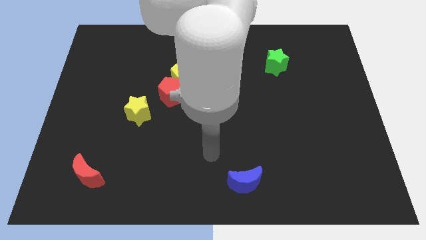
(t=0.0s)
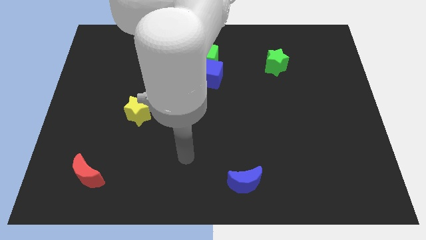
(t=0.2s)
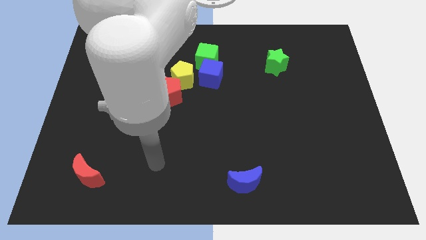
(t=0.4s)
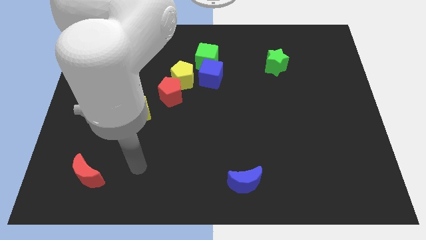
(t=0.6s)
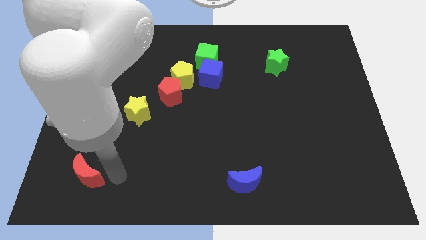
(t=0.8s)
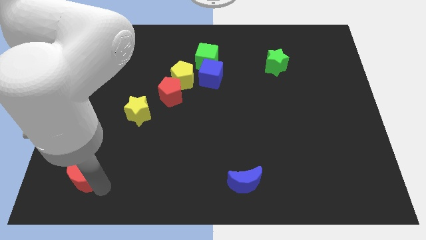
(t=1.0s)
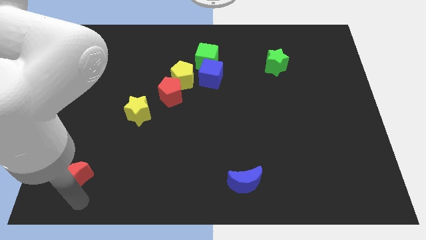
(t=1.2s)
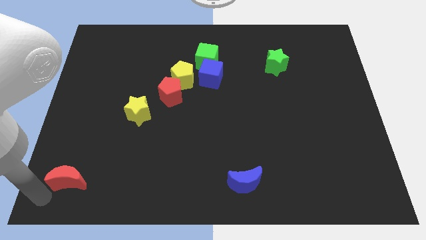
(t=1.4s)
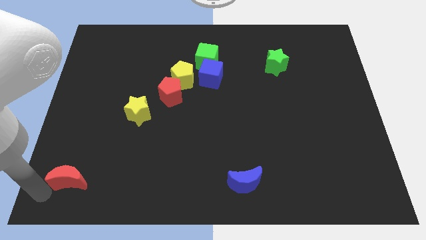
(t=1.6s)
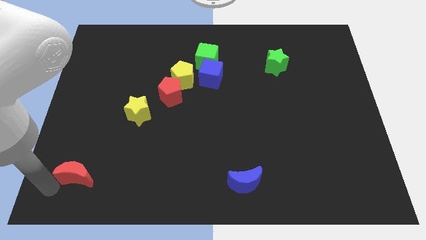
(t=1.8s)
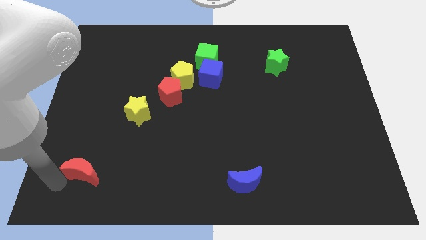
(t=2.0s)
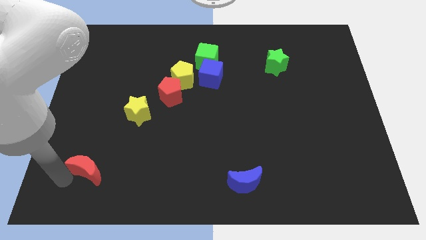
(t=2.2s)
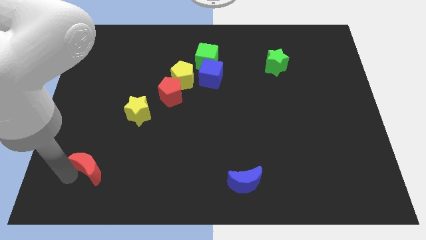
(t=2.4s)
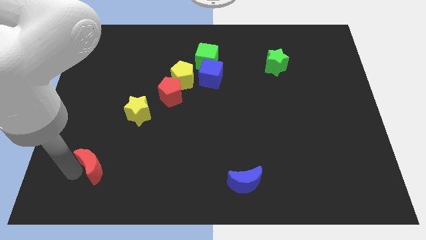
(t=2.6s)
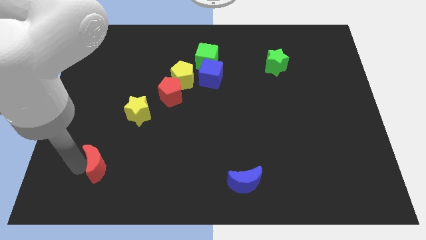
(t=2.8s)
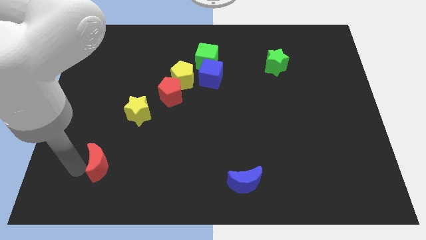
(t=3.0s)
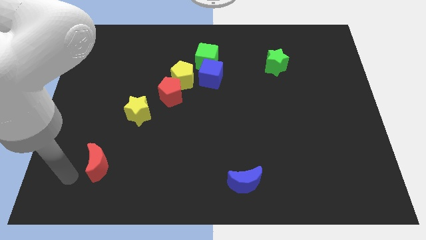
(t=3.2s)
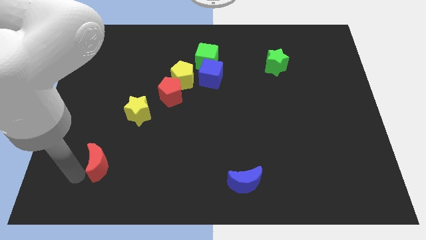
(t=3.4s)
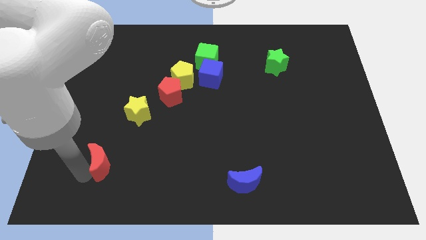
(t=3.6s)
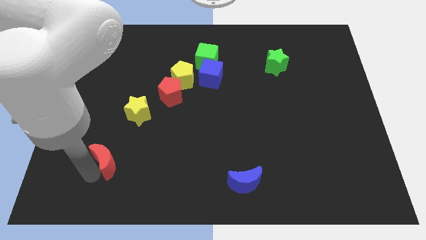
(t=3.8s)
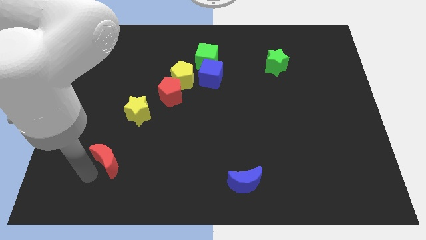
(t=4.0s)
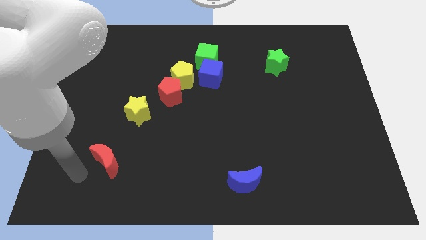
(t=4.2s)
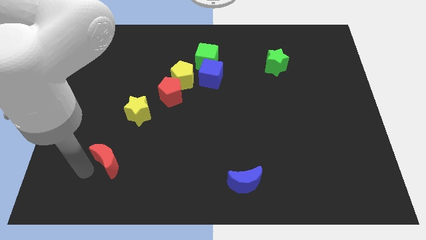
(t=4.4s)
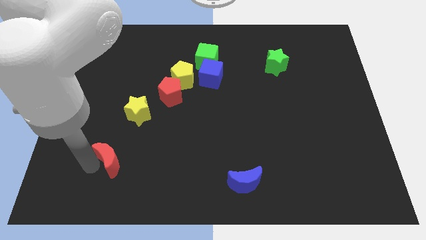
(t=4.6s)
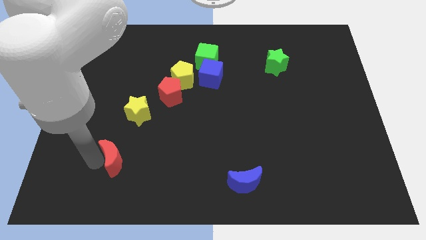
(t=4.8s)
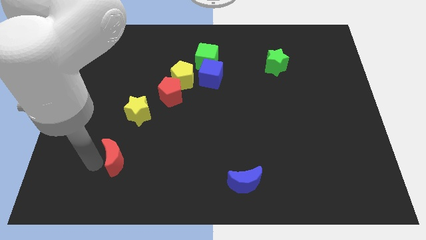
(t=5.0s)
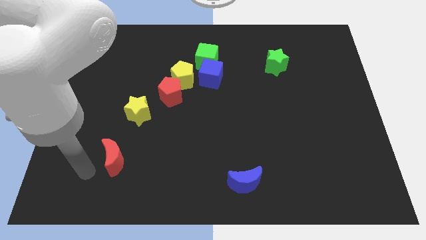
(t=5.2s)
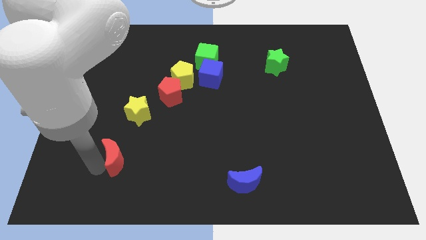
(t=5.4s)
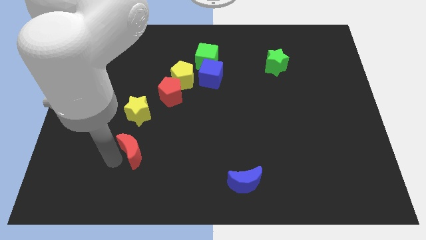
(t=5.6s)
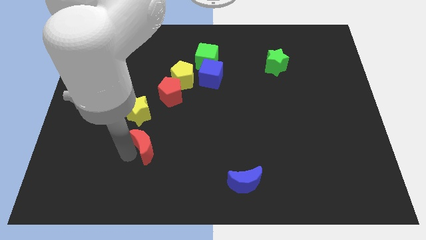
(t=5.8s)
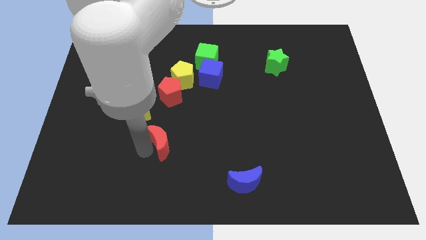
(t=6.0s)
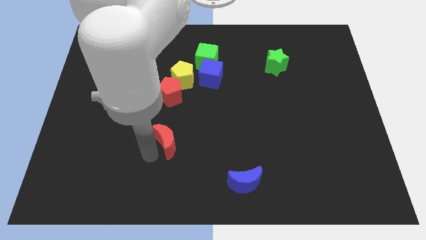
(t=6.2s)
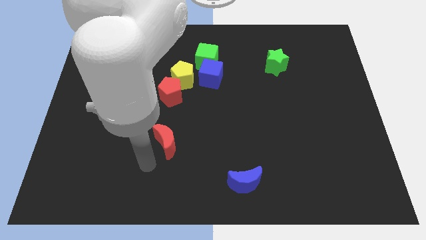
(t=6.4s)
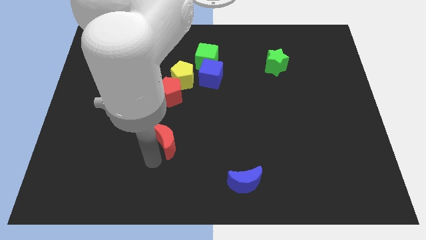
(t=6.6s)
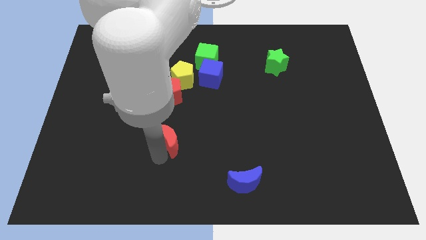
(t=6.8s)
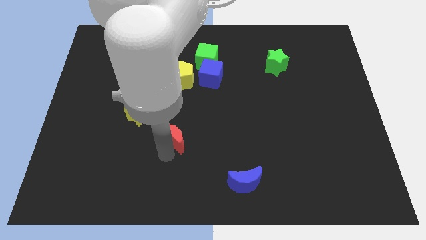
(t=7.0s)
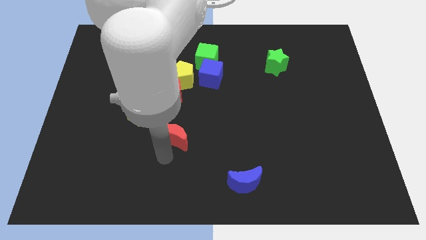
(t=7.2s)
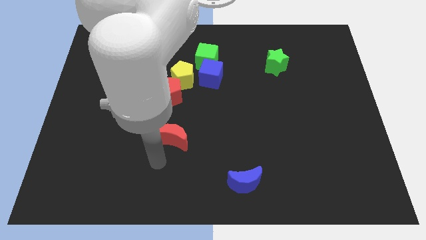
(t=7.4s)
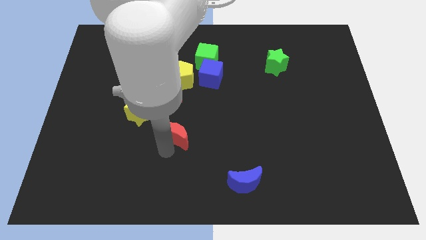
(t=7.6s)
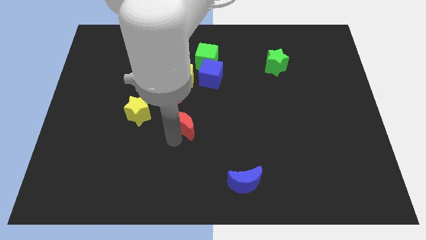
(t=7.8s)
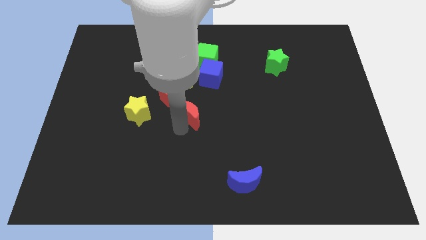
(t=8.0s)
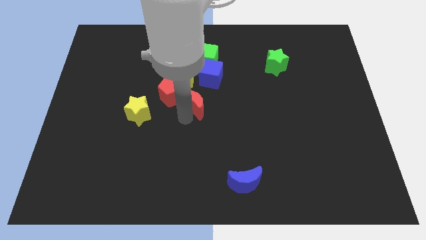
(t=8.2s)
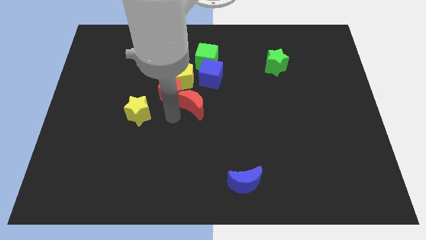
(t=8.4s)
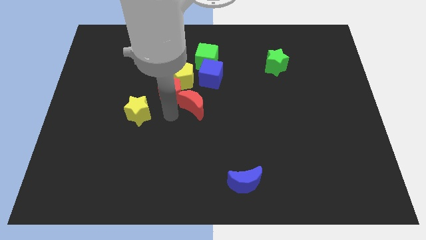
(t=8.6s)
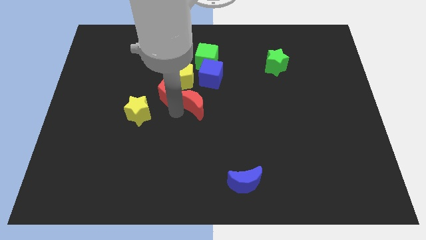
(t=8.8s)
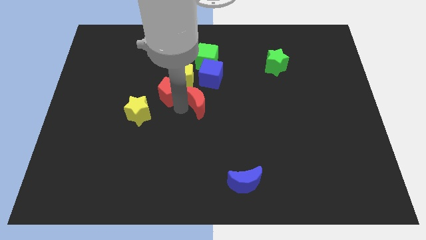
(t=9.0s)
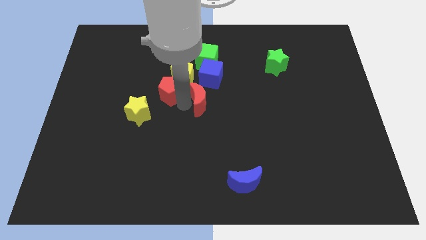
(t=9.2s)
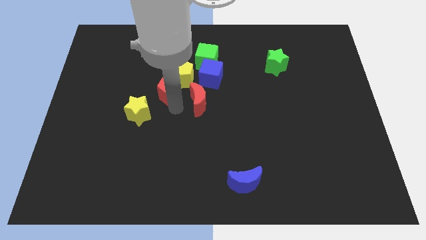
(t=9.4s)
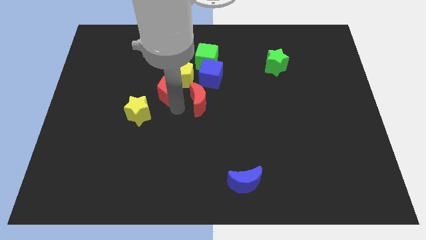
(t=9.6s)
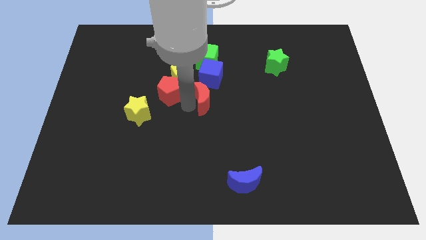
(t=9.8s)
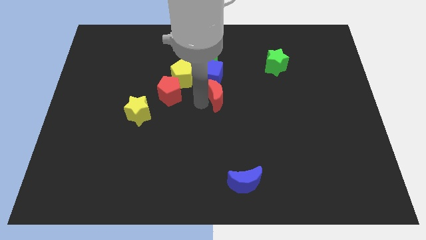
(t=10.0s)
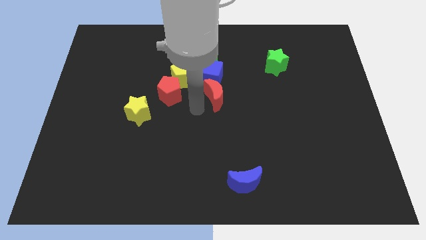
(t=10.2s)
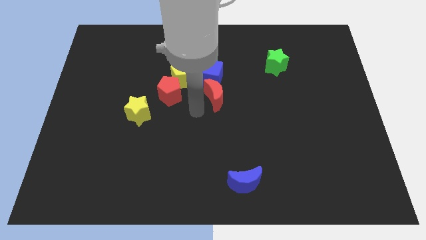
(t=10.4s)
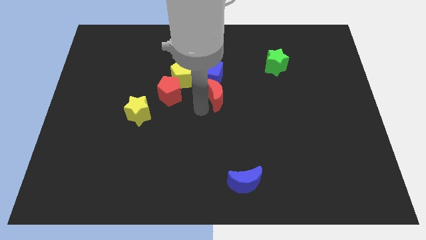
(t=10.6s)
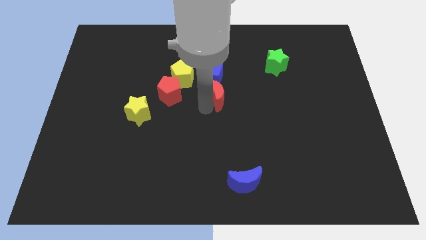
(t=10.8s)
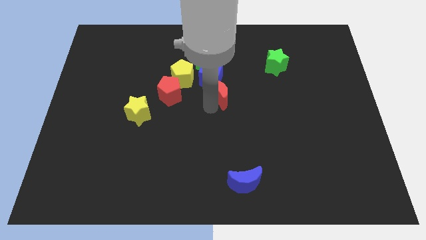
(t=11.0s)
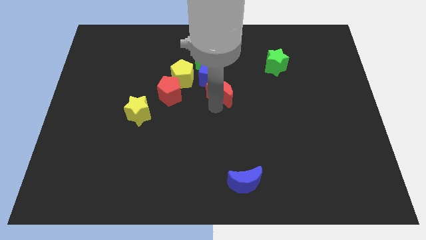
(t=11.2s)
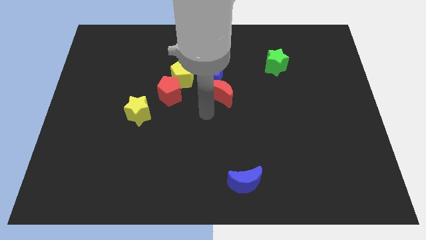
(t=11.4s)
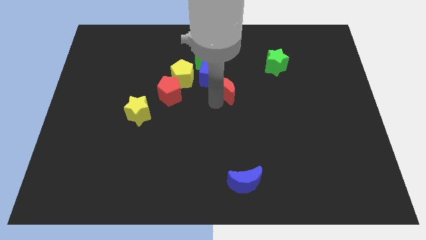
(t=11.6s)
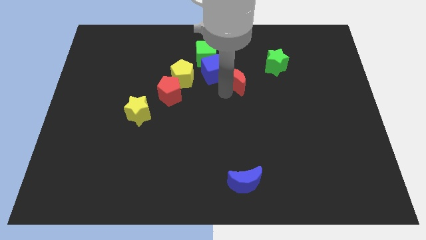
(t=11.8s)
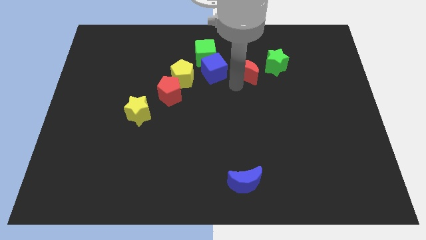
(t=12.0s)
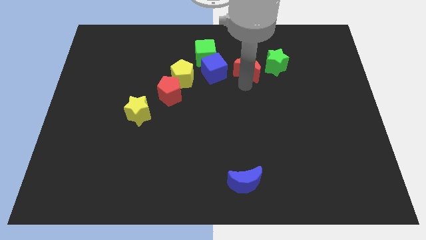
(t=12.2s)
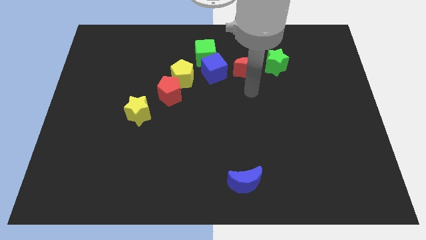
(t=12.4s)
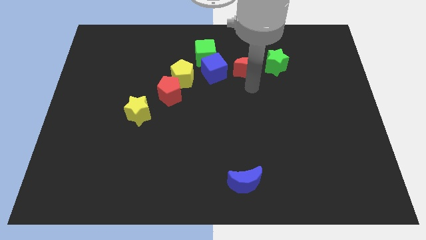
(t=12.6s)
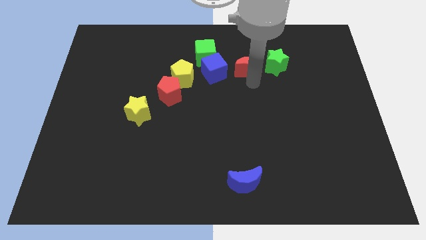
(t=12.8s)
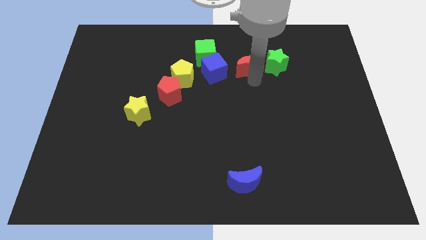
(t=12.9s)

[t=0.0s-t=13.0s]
slide the red moon to the right side of the green cube

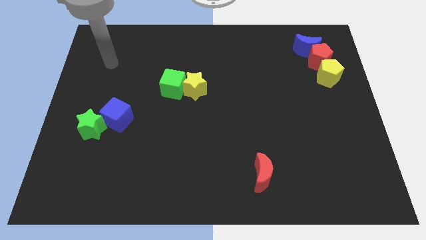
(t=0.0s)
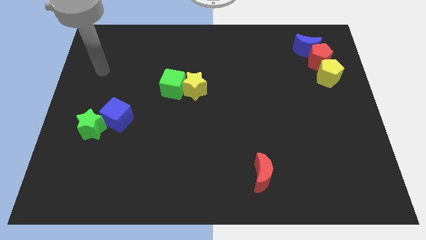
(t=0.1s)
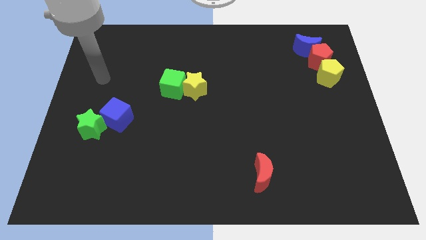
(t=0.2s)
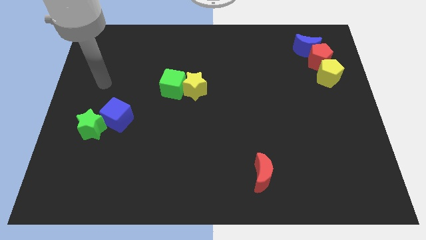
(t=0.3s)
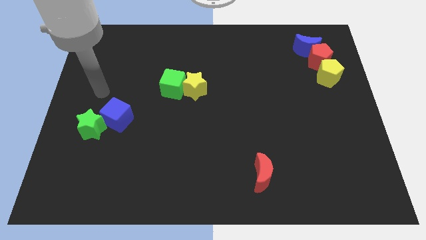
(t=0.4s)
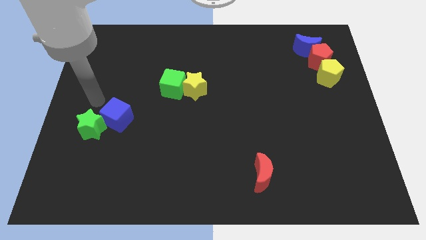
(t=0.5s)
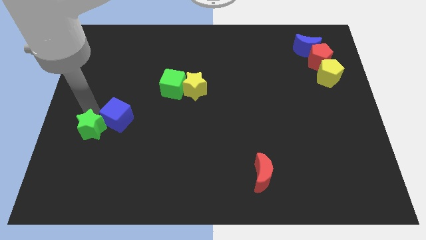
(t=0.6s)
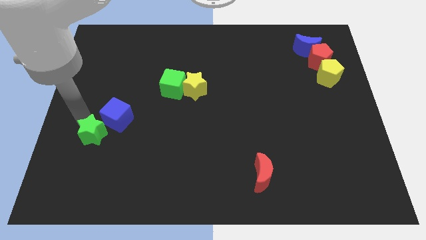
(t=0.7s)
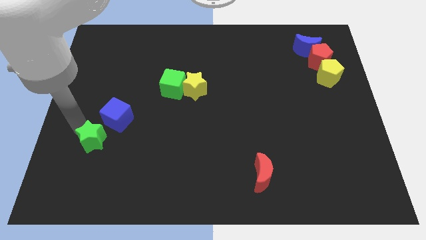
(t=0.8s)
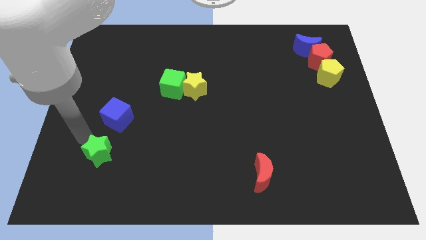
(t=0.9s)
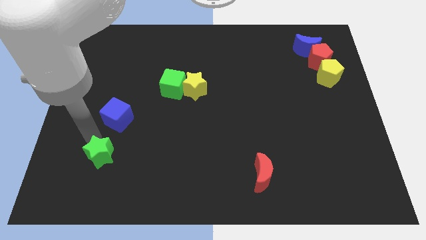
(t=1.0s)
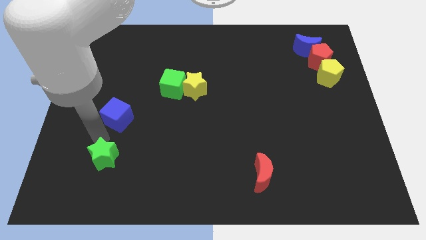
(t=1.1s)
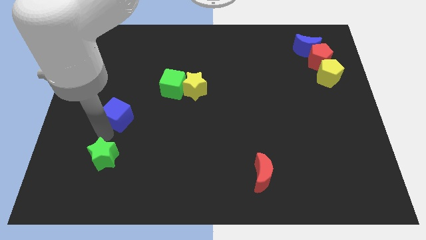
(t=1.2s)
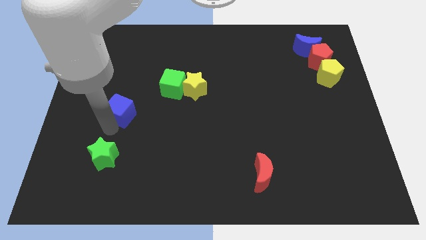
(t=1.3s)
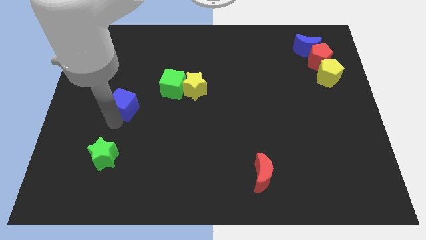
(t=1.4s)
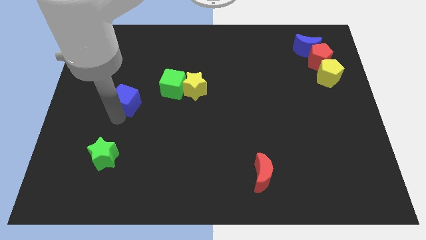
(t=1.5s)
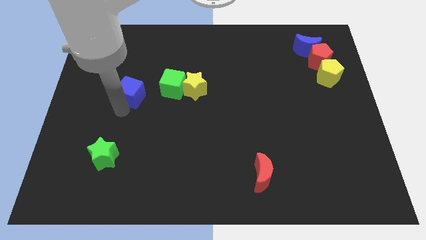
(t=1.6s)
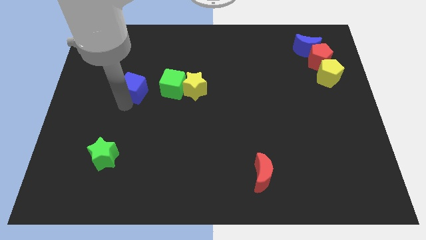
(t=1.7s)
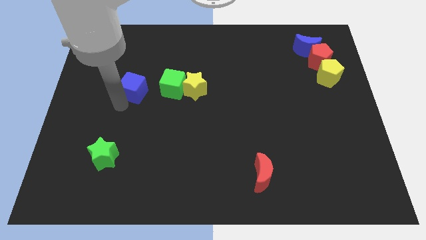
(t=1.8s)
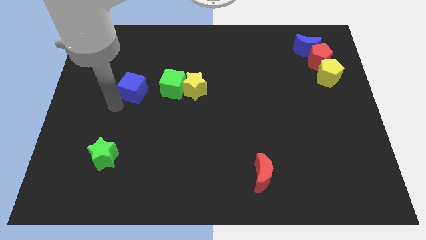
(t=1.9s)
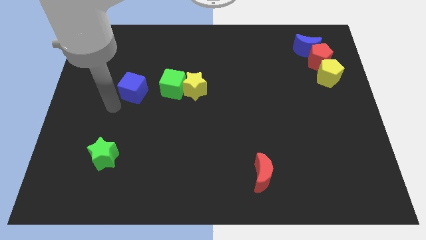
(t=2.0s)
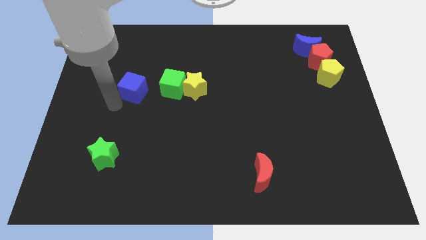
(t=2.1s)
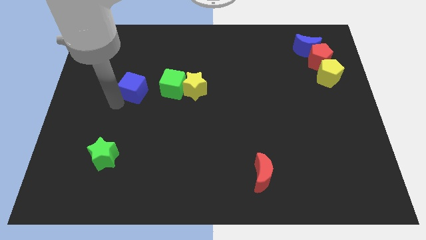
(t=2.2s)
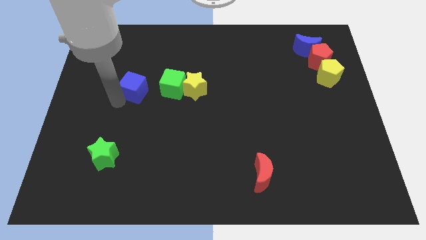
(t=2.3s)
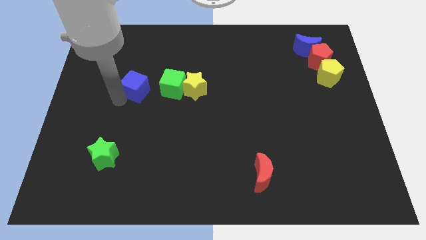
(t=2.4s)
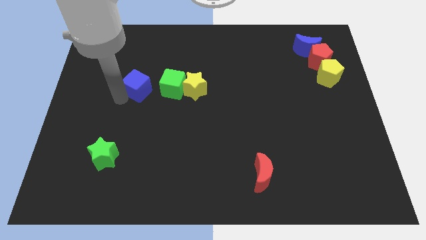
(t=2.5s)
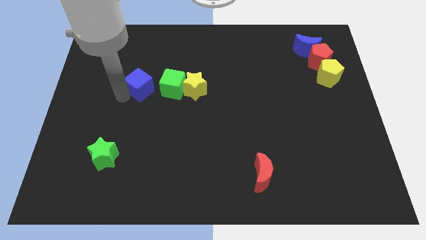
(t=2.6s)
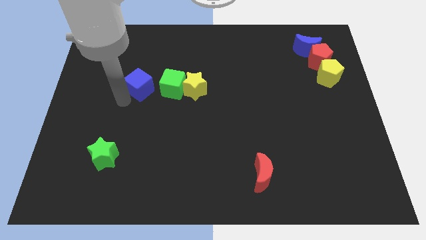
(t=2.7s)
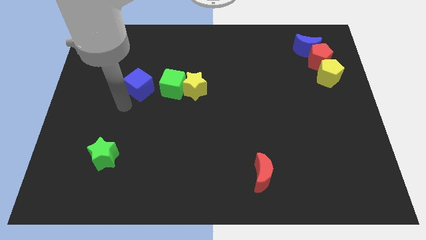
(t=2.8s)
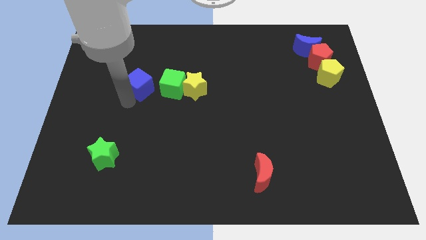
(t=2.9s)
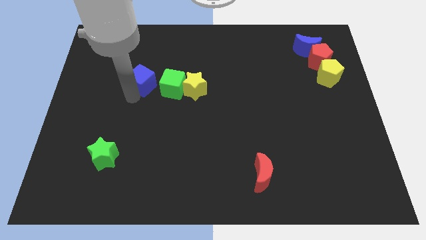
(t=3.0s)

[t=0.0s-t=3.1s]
slide the blue cube diagonally up and to the left of the green cube
